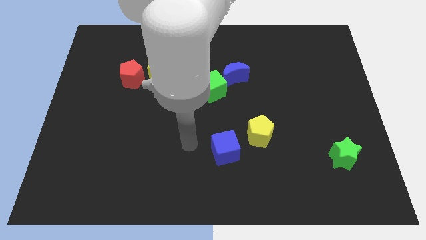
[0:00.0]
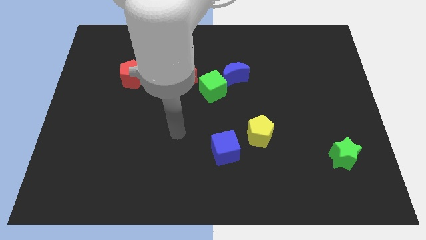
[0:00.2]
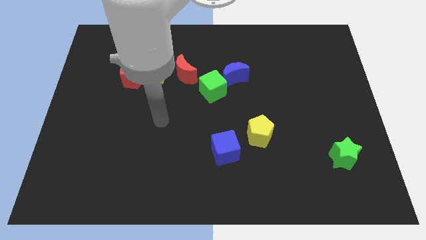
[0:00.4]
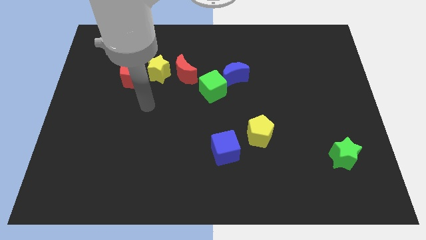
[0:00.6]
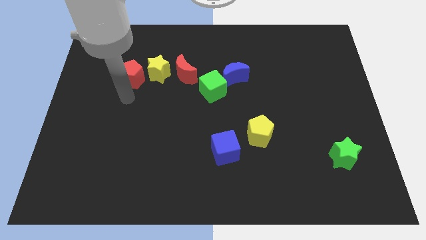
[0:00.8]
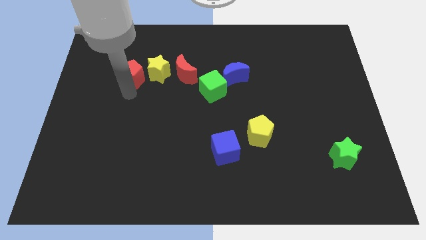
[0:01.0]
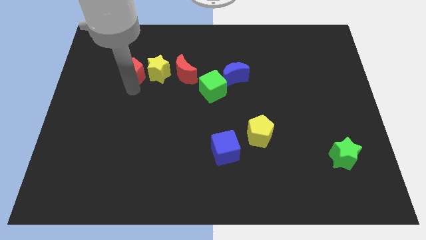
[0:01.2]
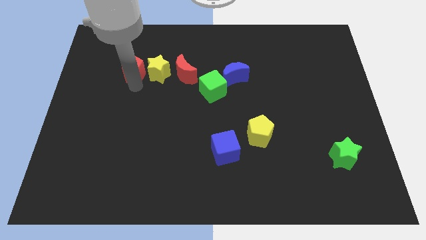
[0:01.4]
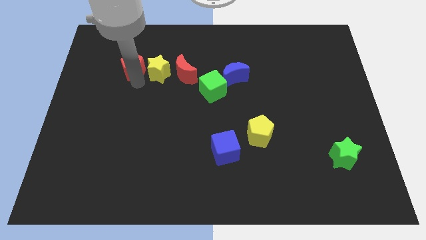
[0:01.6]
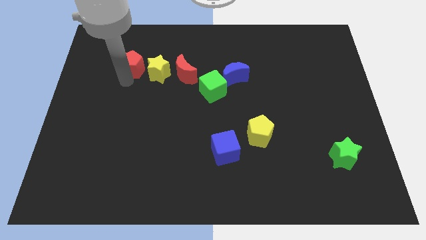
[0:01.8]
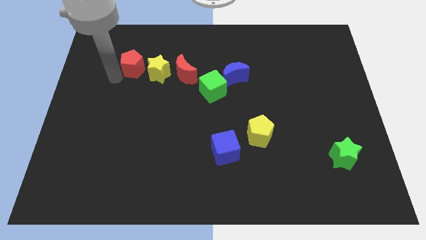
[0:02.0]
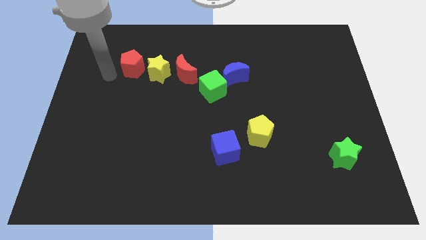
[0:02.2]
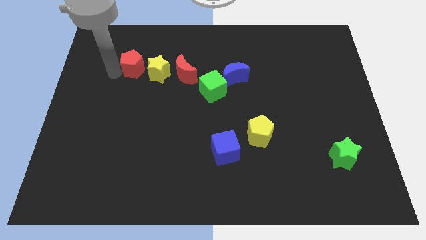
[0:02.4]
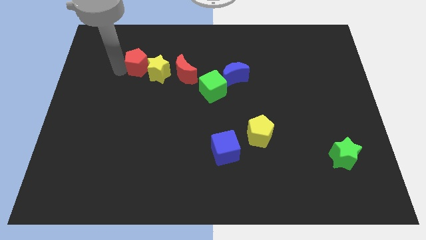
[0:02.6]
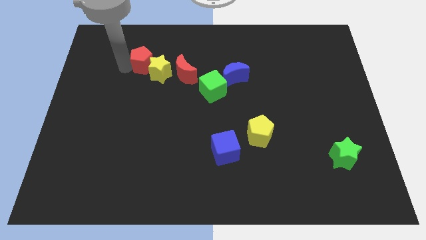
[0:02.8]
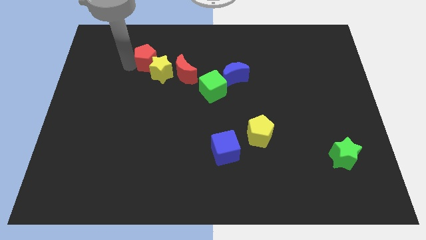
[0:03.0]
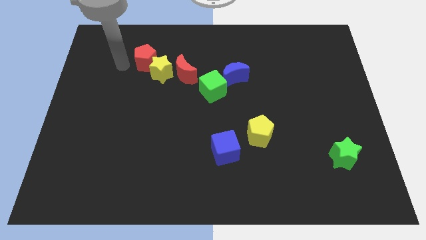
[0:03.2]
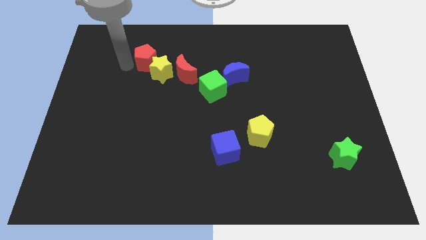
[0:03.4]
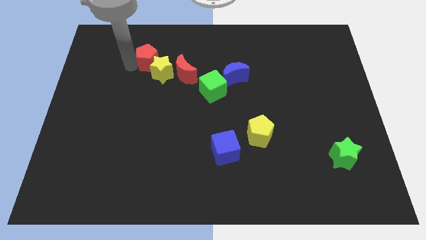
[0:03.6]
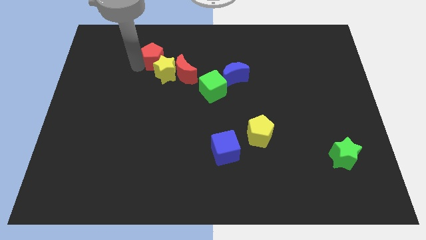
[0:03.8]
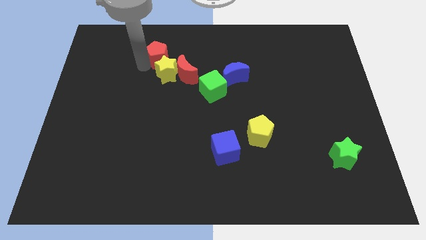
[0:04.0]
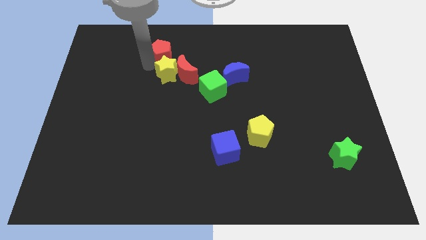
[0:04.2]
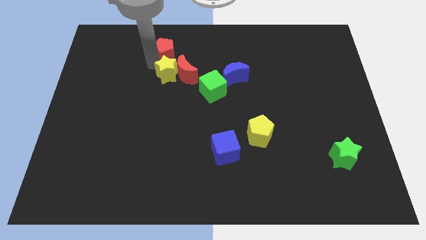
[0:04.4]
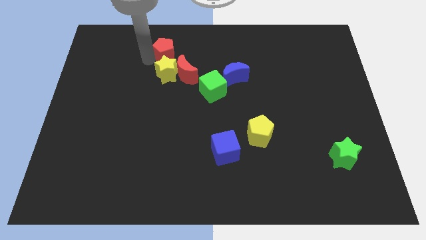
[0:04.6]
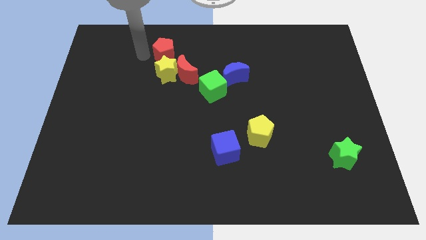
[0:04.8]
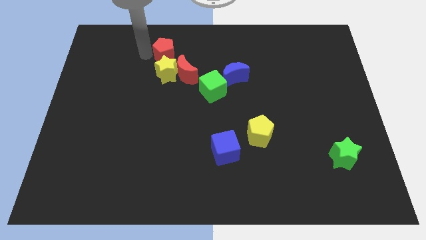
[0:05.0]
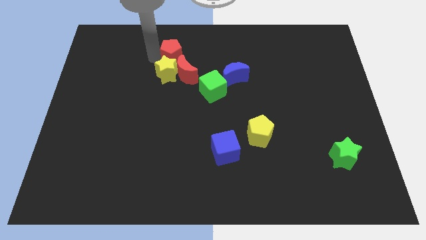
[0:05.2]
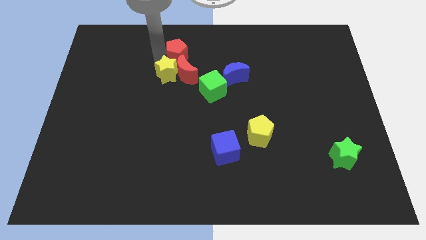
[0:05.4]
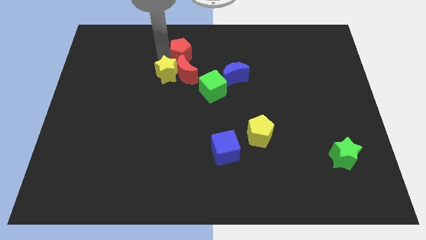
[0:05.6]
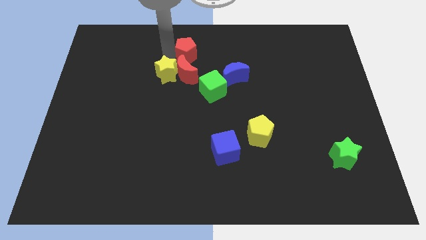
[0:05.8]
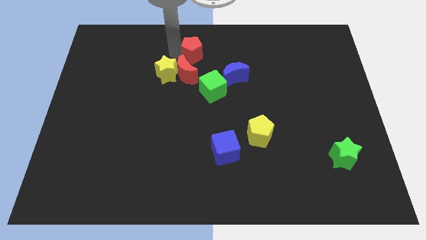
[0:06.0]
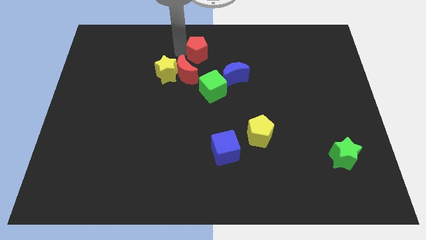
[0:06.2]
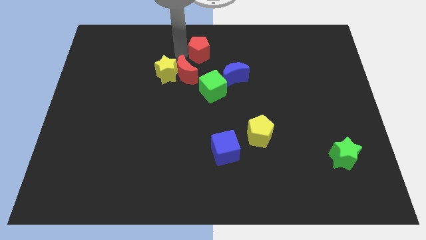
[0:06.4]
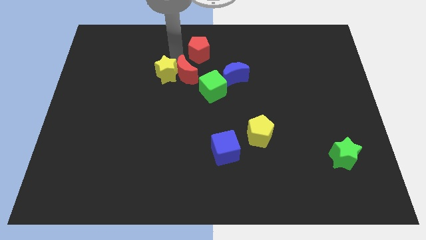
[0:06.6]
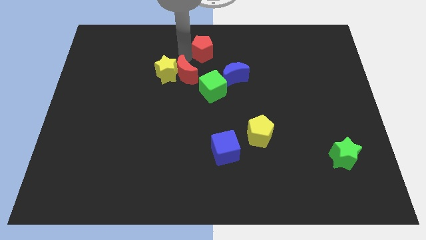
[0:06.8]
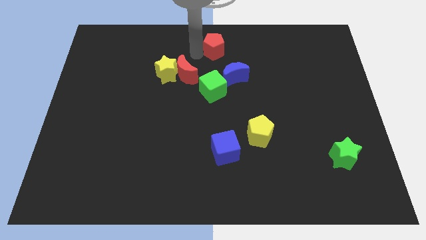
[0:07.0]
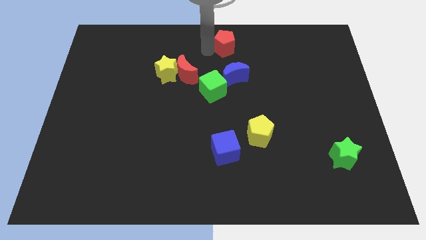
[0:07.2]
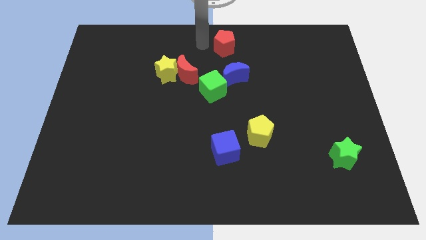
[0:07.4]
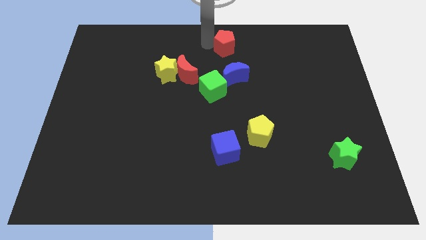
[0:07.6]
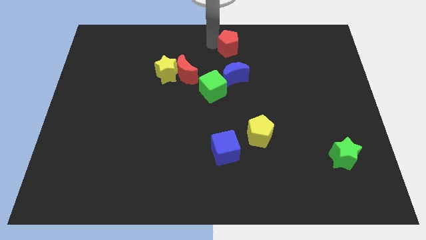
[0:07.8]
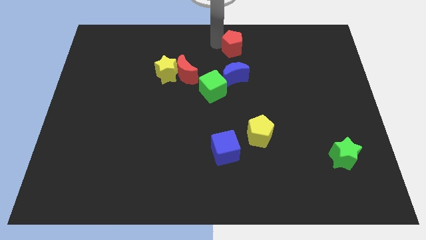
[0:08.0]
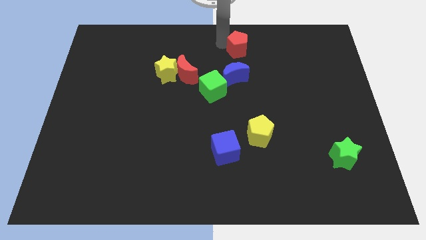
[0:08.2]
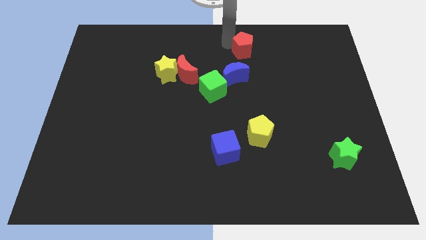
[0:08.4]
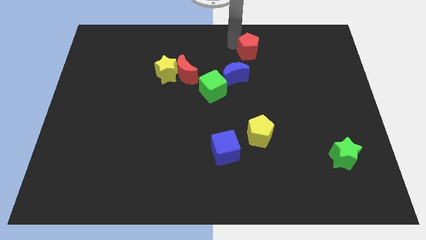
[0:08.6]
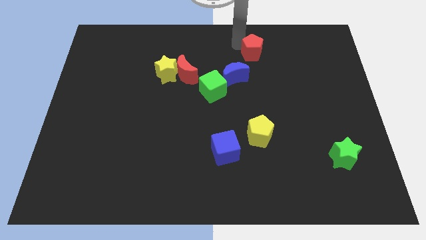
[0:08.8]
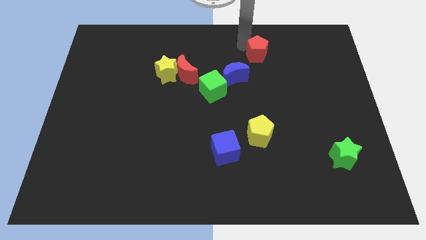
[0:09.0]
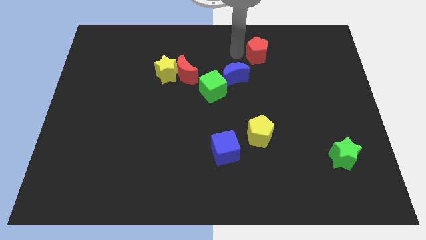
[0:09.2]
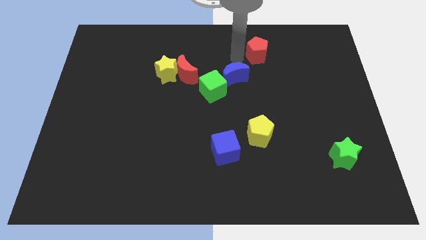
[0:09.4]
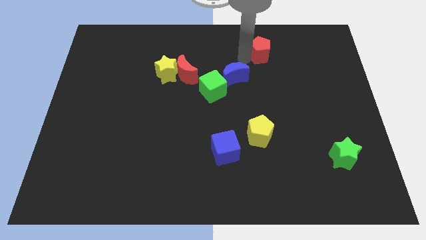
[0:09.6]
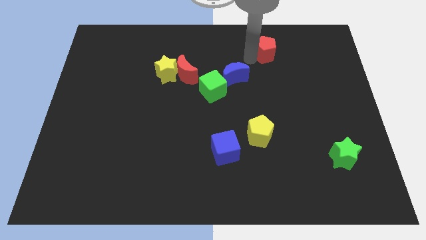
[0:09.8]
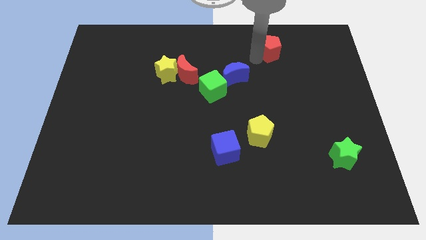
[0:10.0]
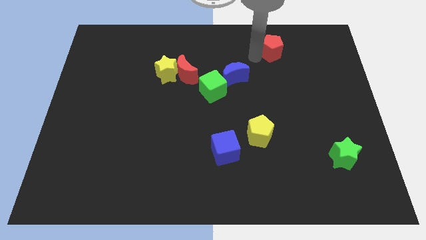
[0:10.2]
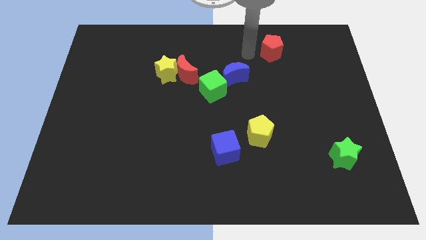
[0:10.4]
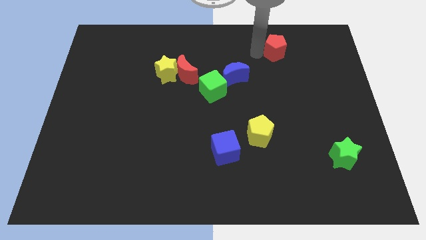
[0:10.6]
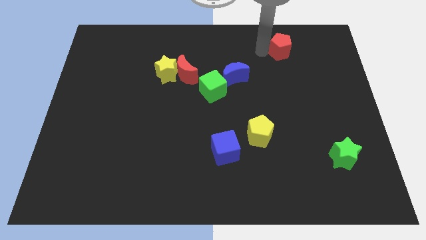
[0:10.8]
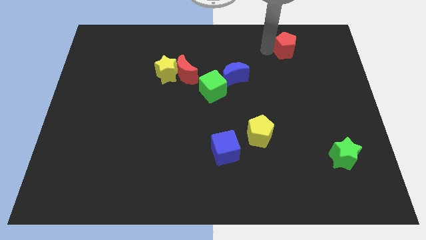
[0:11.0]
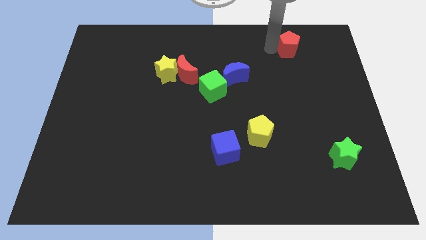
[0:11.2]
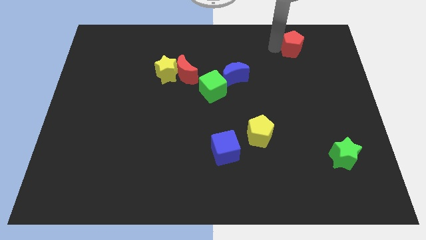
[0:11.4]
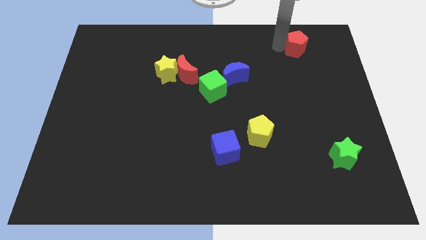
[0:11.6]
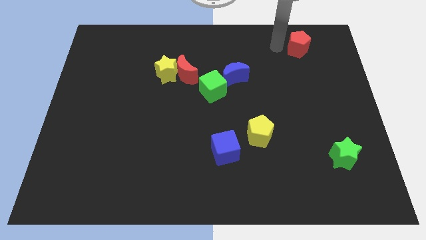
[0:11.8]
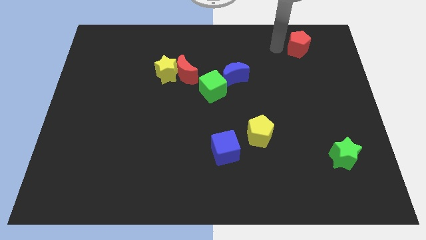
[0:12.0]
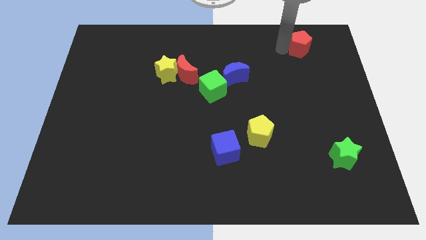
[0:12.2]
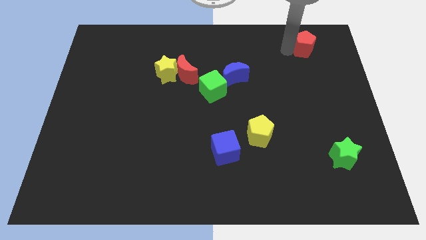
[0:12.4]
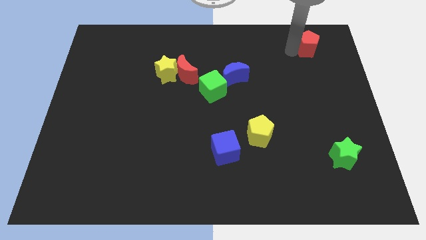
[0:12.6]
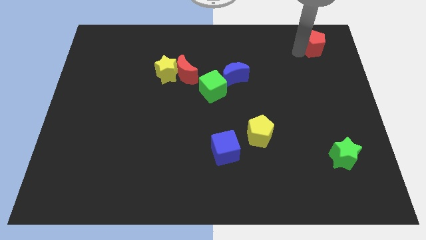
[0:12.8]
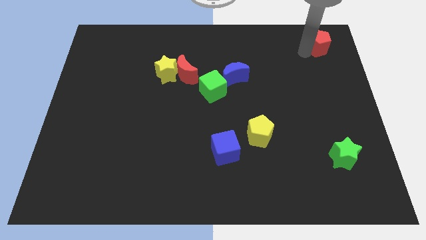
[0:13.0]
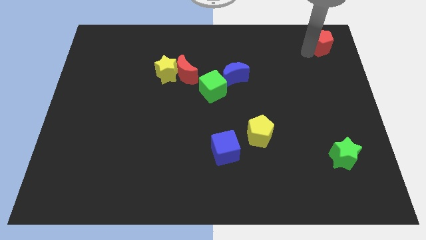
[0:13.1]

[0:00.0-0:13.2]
move the red pentagon to the upper right corner
